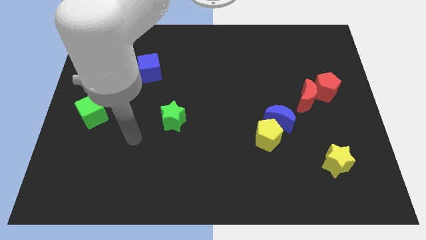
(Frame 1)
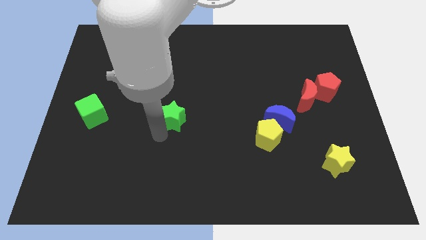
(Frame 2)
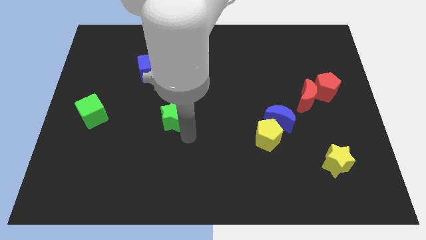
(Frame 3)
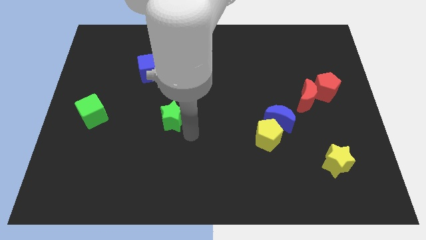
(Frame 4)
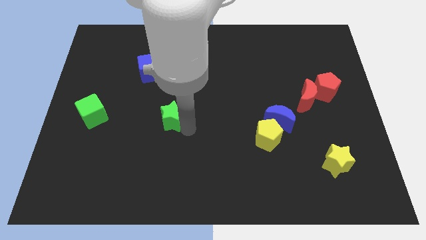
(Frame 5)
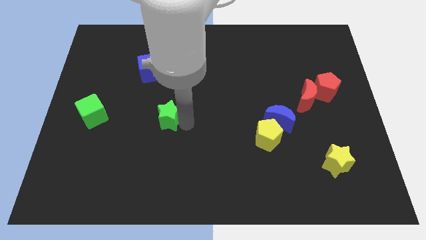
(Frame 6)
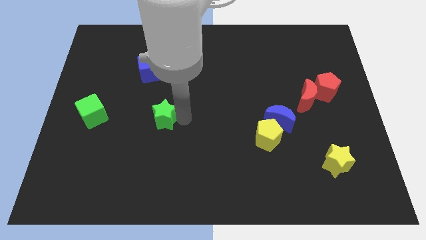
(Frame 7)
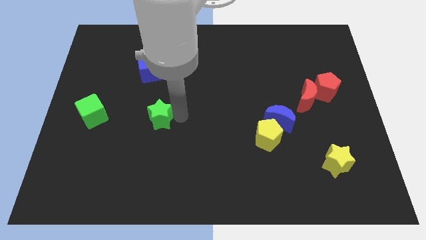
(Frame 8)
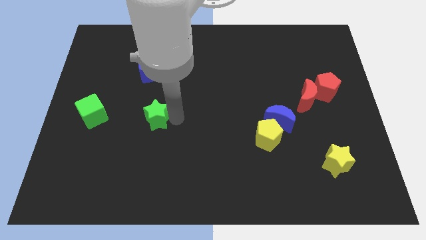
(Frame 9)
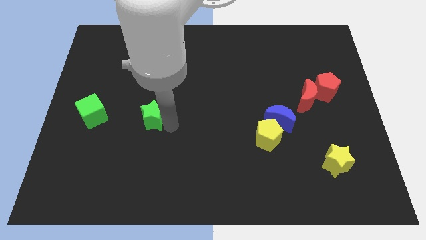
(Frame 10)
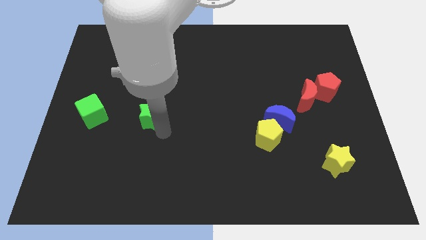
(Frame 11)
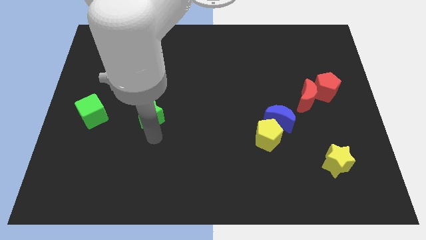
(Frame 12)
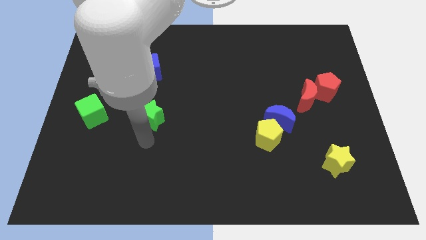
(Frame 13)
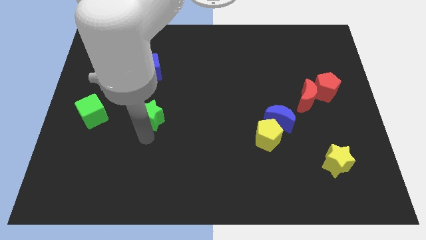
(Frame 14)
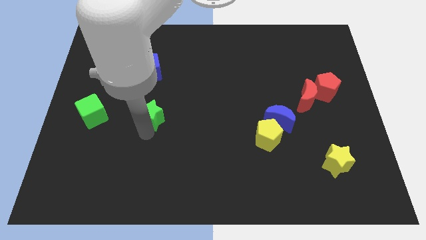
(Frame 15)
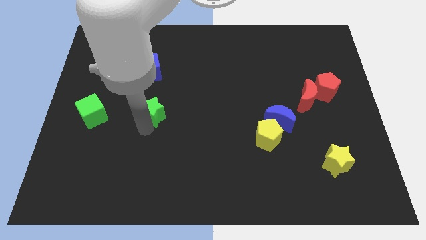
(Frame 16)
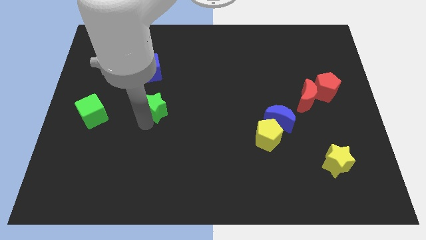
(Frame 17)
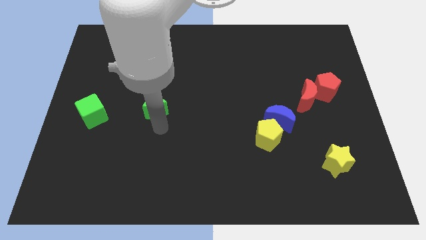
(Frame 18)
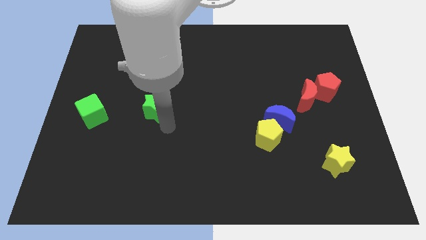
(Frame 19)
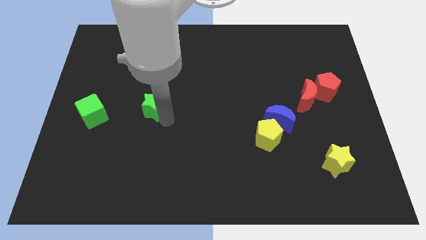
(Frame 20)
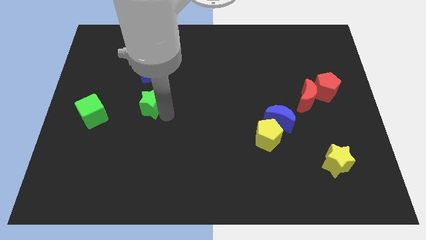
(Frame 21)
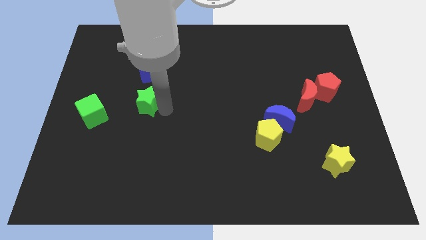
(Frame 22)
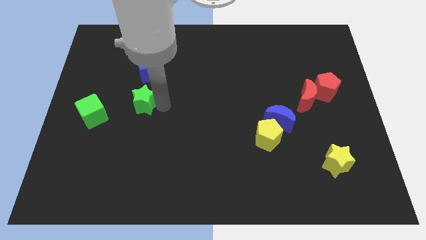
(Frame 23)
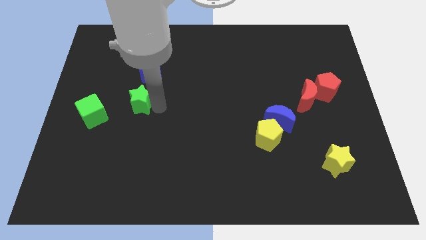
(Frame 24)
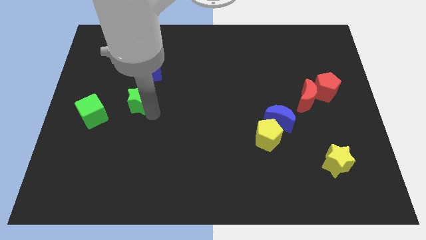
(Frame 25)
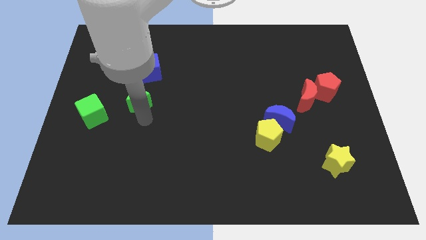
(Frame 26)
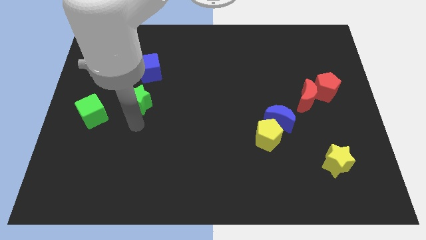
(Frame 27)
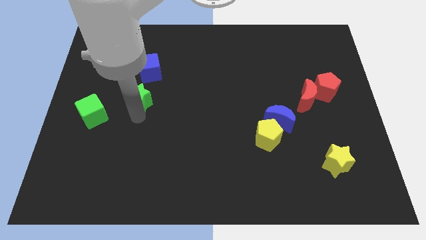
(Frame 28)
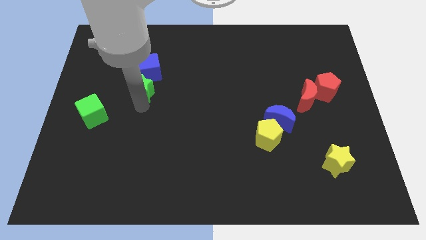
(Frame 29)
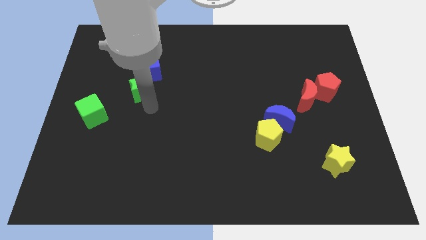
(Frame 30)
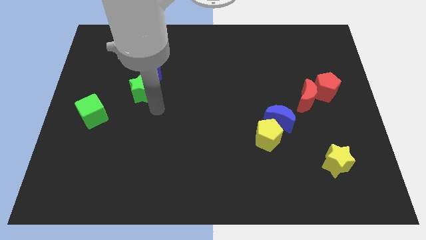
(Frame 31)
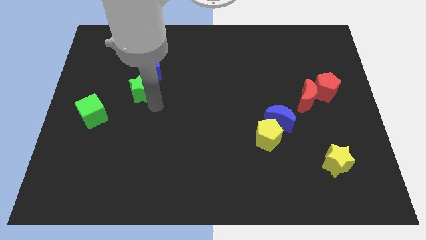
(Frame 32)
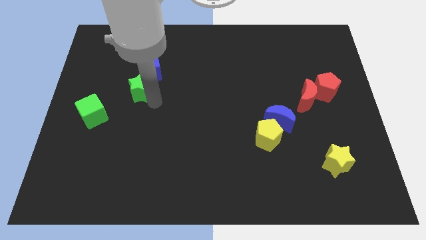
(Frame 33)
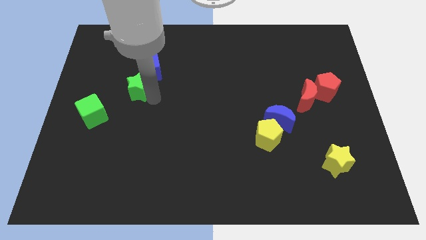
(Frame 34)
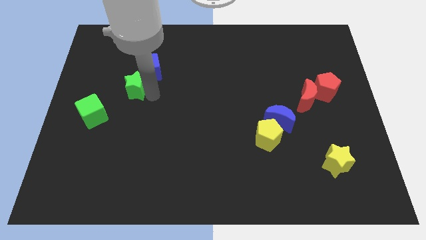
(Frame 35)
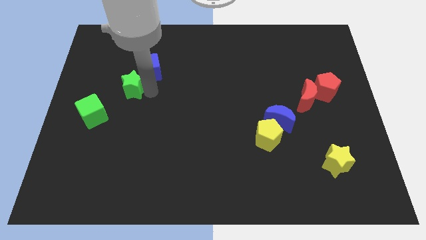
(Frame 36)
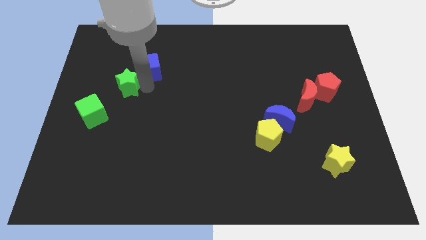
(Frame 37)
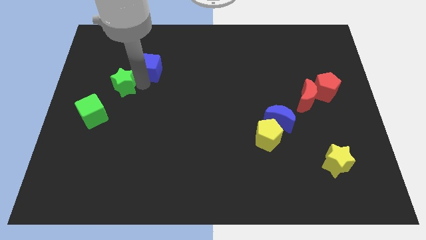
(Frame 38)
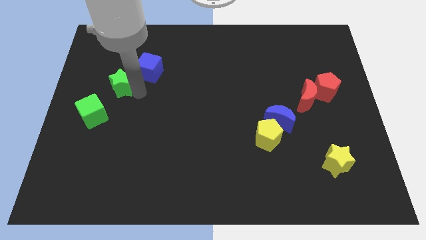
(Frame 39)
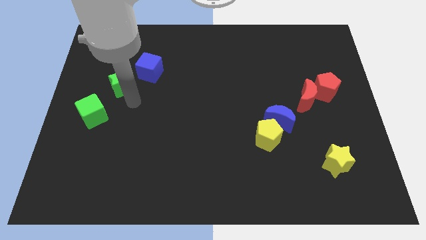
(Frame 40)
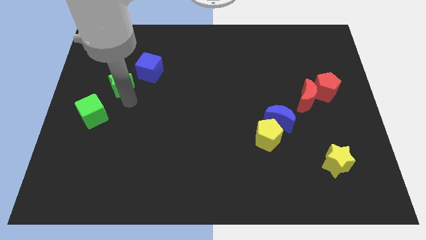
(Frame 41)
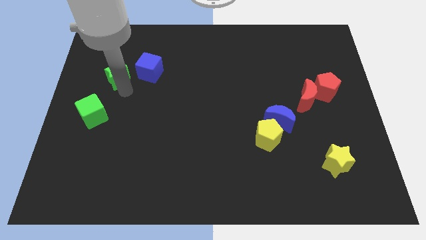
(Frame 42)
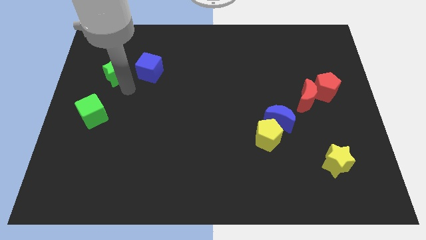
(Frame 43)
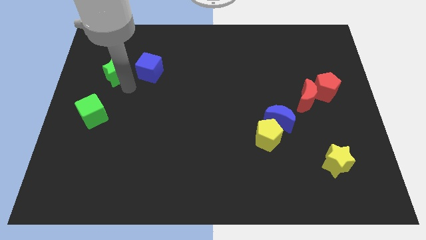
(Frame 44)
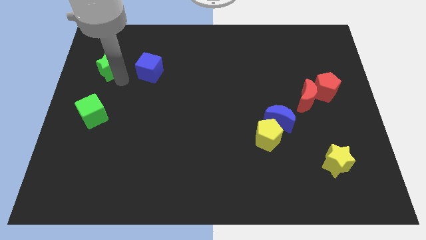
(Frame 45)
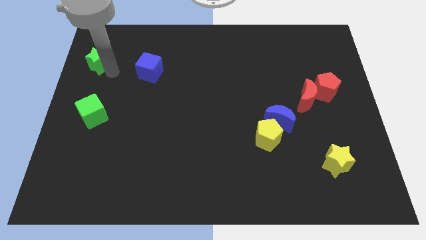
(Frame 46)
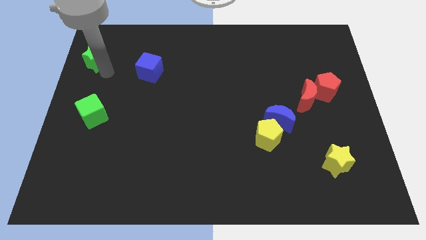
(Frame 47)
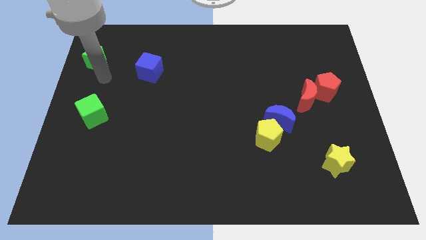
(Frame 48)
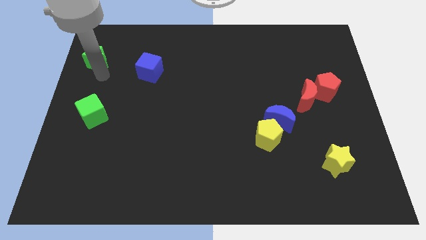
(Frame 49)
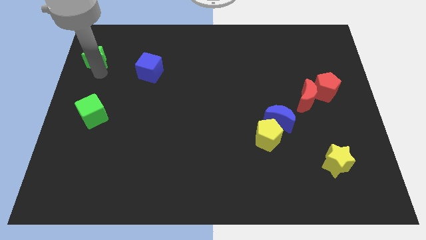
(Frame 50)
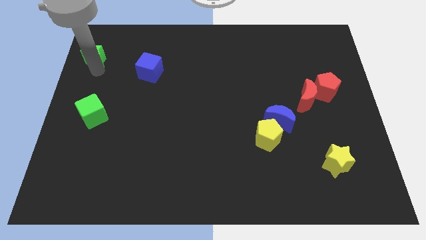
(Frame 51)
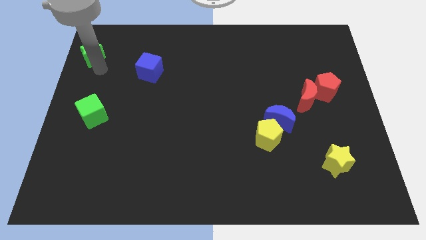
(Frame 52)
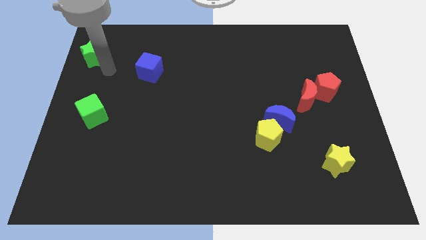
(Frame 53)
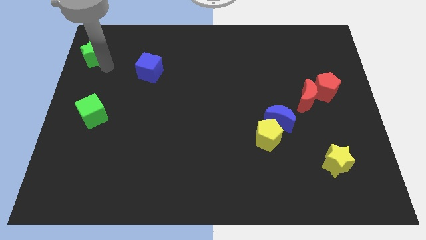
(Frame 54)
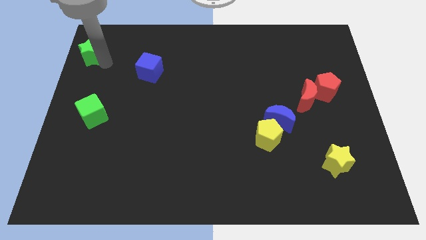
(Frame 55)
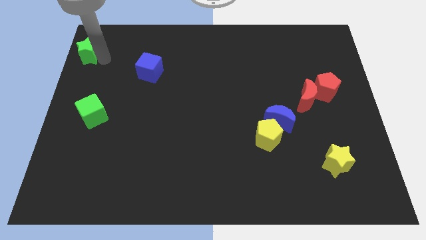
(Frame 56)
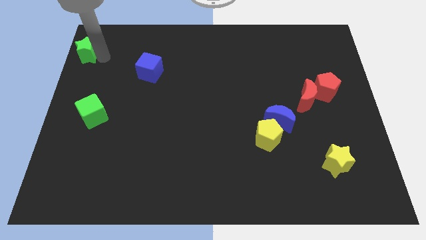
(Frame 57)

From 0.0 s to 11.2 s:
put the green star to the top left corner

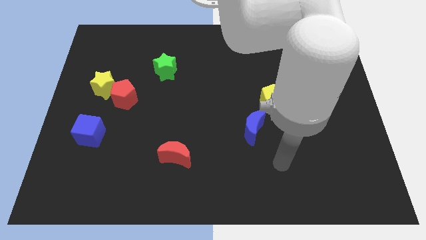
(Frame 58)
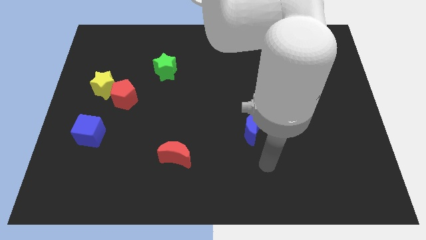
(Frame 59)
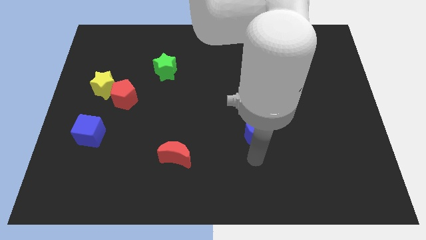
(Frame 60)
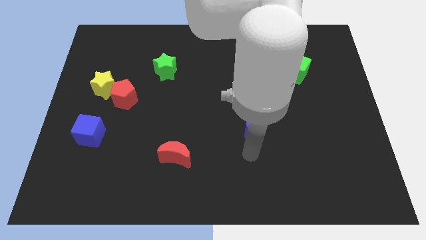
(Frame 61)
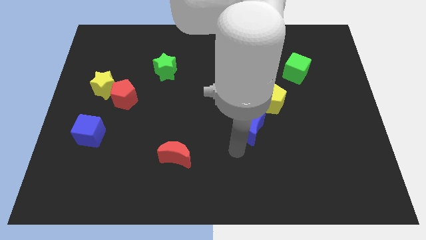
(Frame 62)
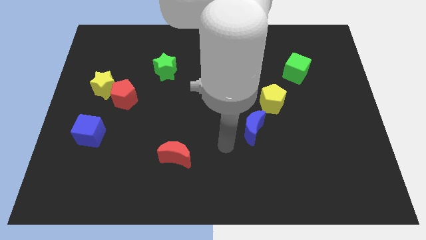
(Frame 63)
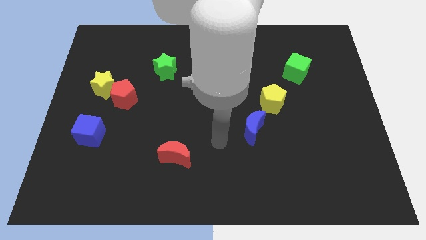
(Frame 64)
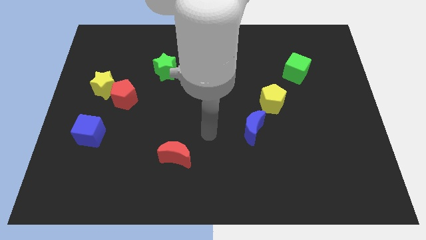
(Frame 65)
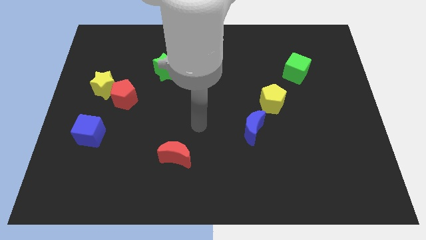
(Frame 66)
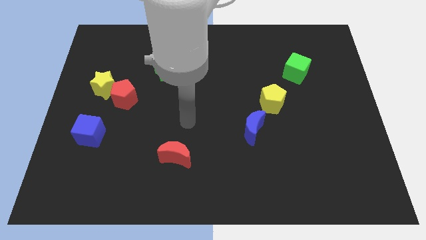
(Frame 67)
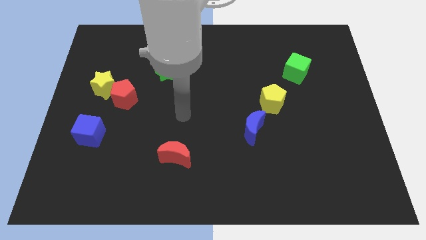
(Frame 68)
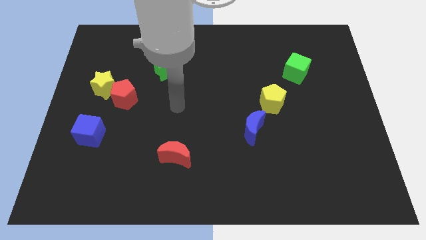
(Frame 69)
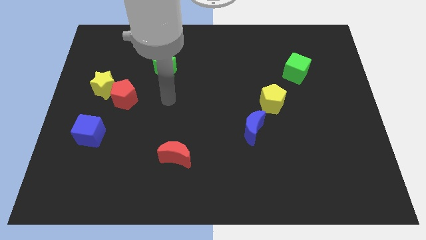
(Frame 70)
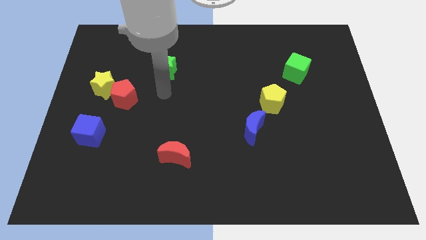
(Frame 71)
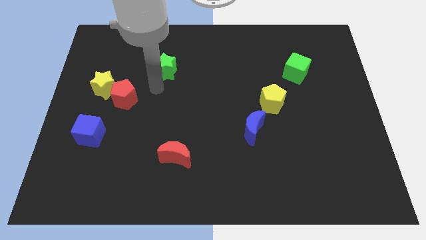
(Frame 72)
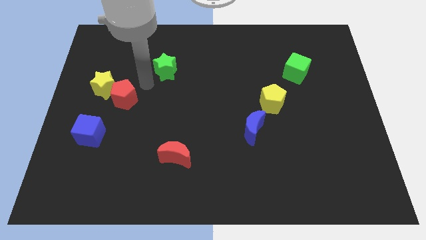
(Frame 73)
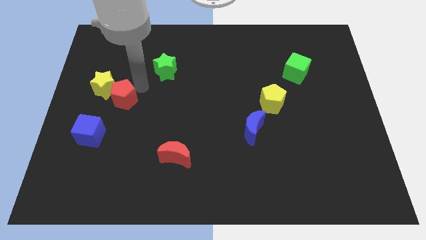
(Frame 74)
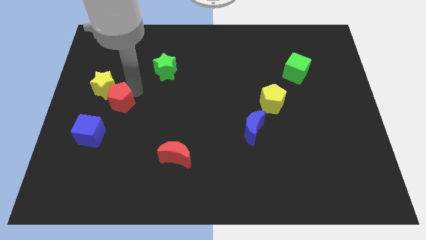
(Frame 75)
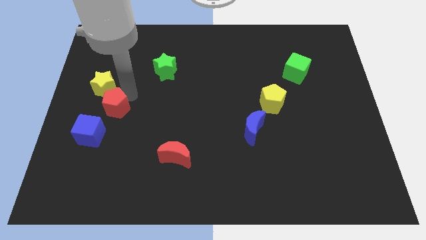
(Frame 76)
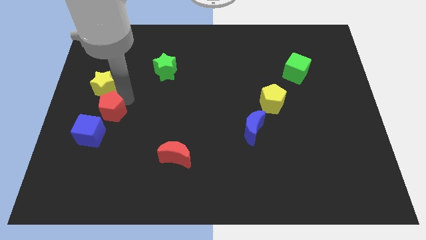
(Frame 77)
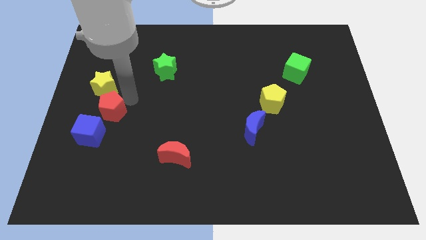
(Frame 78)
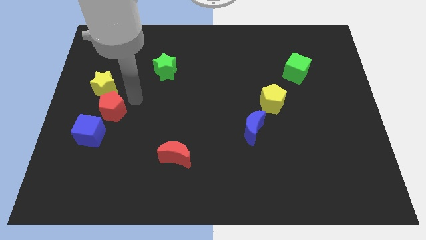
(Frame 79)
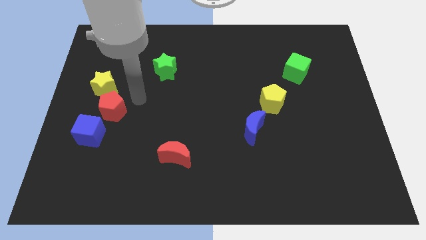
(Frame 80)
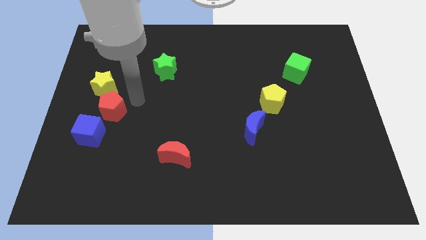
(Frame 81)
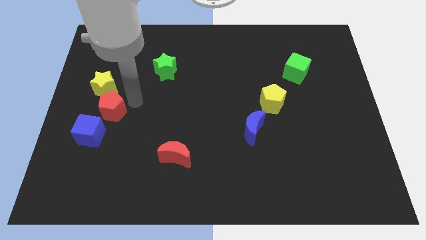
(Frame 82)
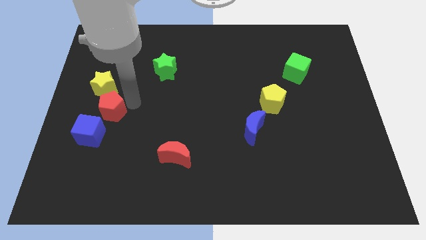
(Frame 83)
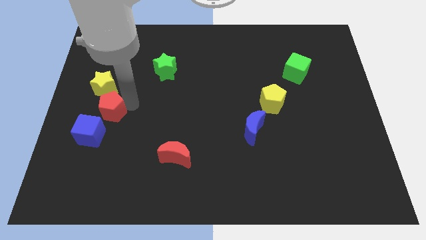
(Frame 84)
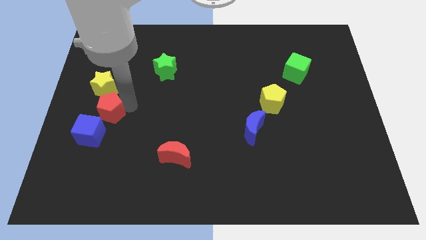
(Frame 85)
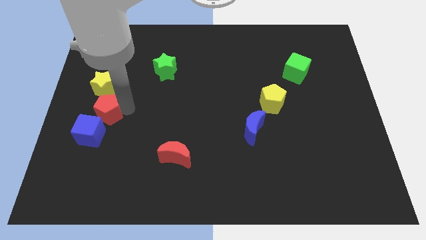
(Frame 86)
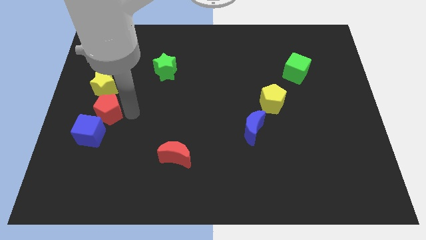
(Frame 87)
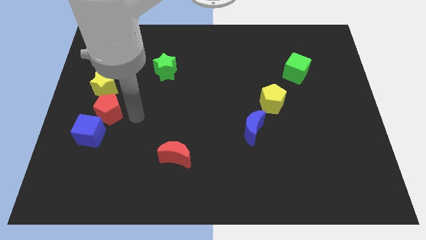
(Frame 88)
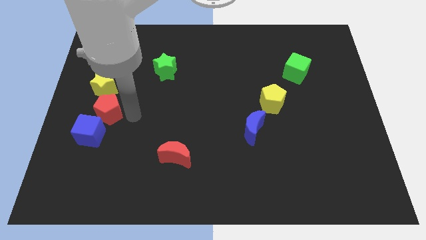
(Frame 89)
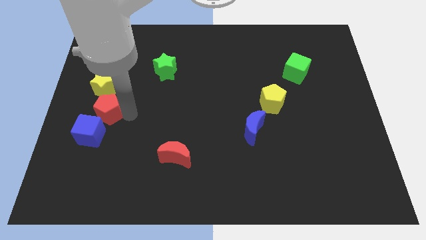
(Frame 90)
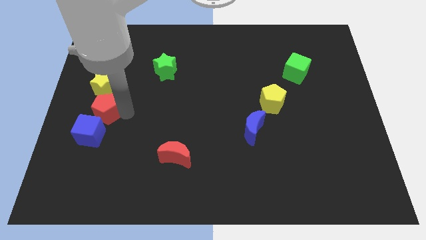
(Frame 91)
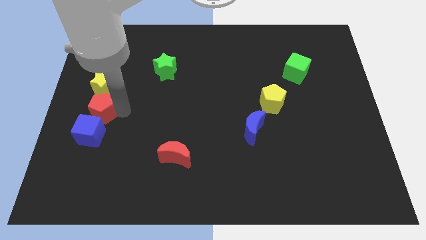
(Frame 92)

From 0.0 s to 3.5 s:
slide the red pentagon to the center left
